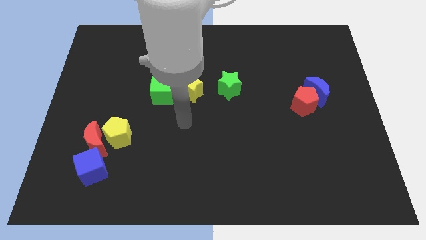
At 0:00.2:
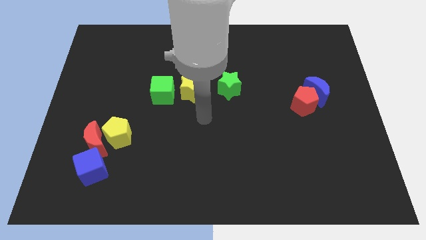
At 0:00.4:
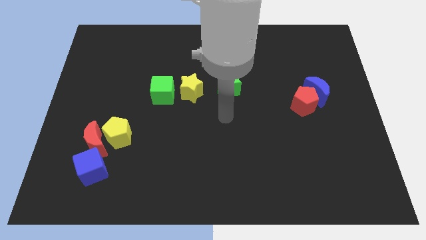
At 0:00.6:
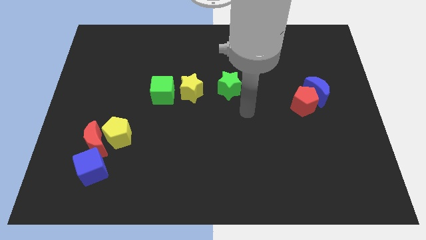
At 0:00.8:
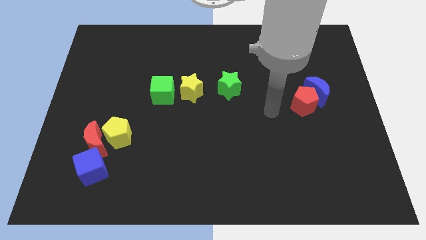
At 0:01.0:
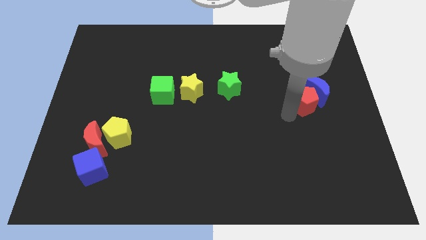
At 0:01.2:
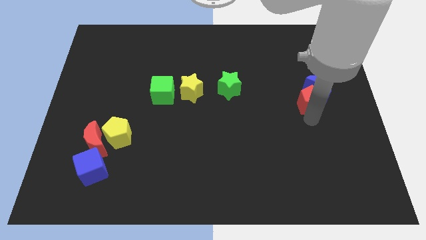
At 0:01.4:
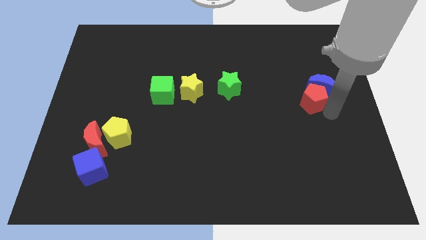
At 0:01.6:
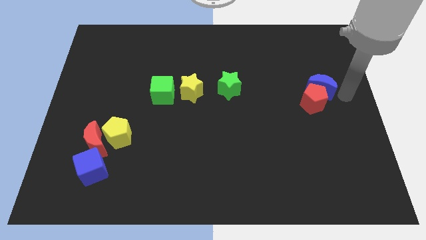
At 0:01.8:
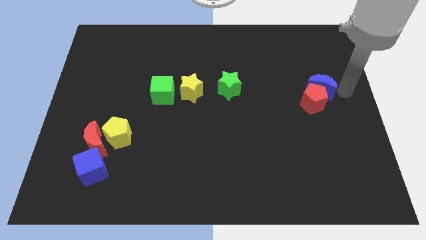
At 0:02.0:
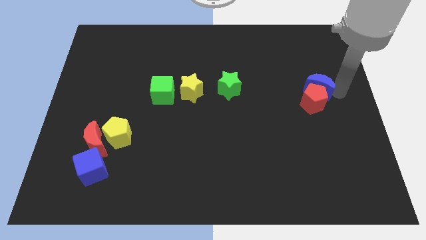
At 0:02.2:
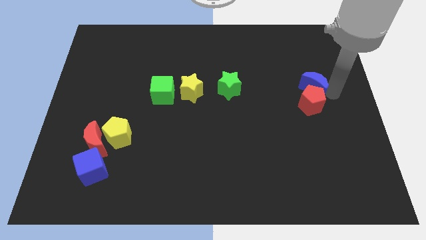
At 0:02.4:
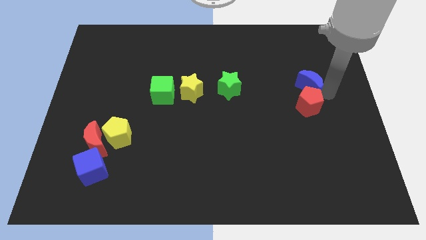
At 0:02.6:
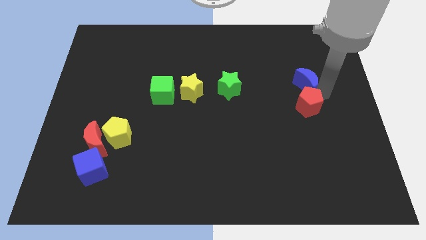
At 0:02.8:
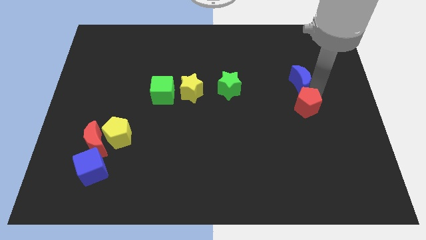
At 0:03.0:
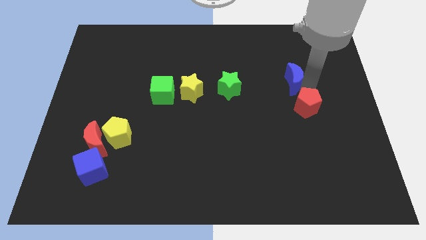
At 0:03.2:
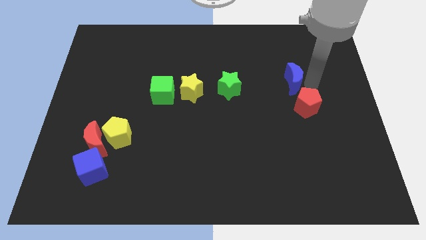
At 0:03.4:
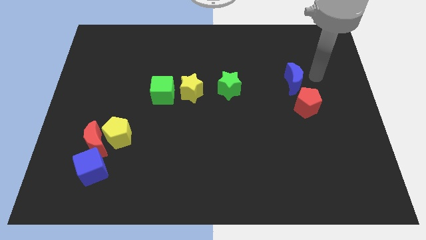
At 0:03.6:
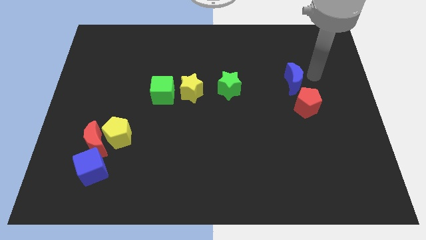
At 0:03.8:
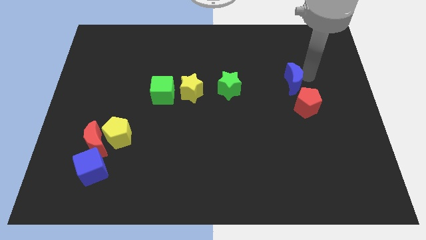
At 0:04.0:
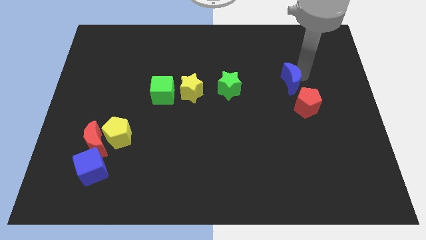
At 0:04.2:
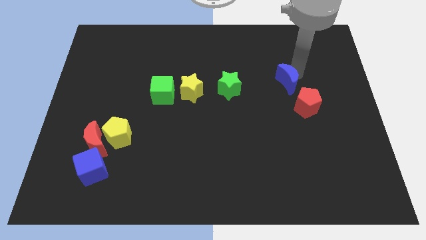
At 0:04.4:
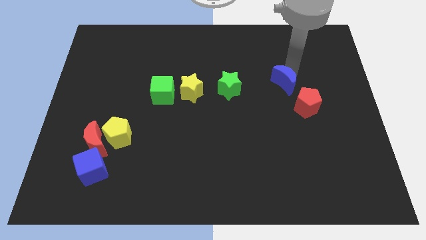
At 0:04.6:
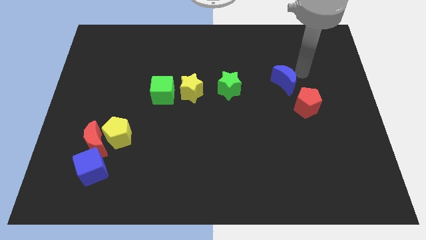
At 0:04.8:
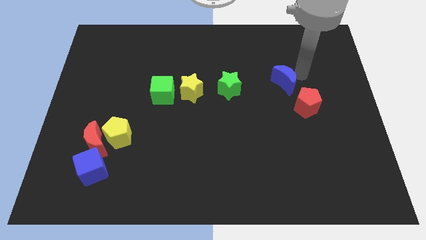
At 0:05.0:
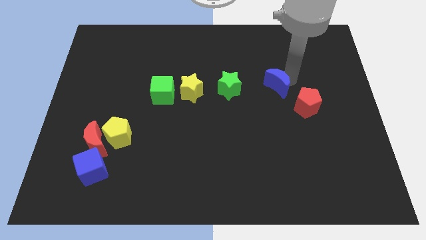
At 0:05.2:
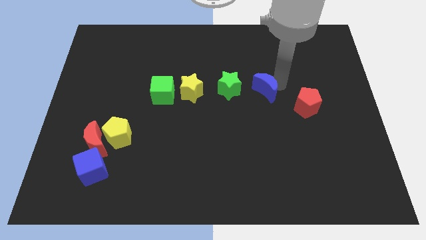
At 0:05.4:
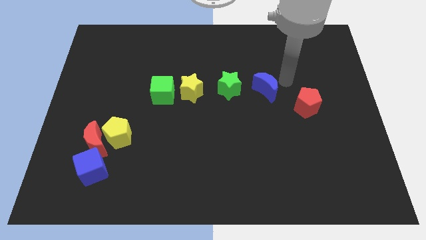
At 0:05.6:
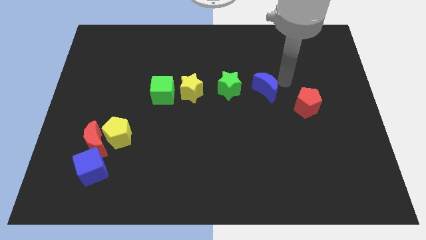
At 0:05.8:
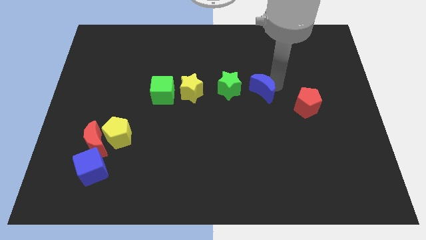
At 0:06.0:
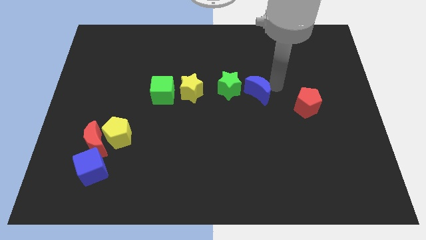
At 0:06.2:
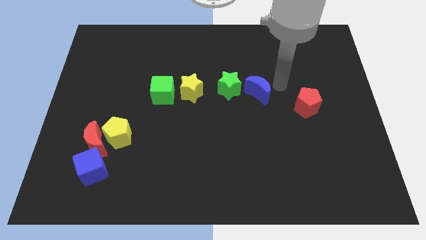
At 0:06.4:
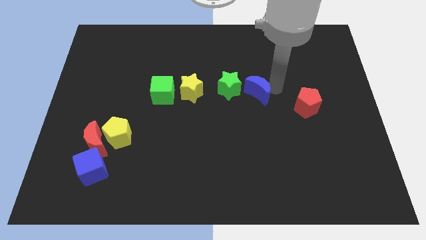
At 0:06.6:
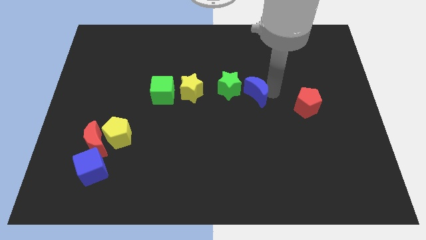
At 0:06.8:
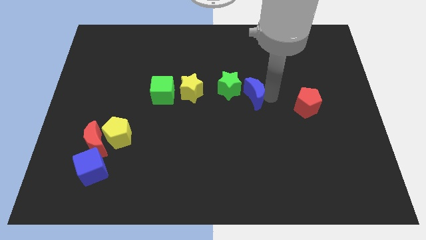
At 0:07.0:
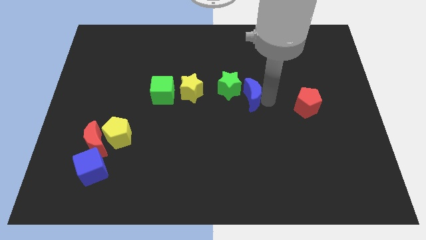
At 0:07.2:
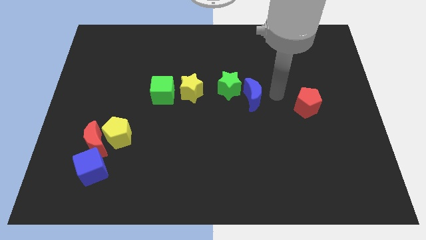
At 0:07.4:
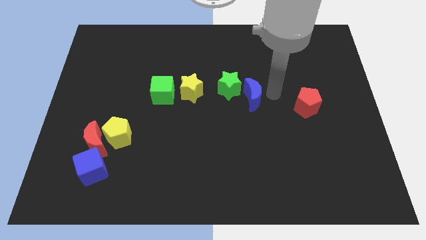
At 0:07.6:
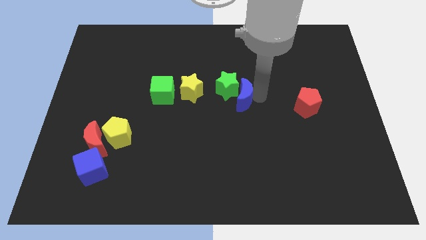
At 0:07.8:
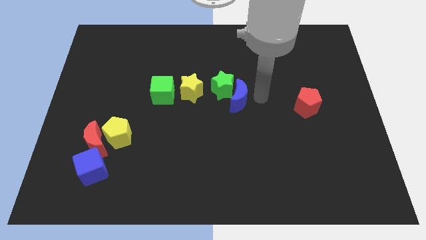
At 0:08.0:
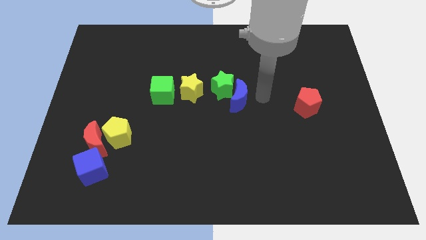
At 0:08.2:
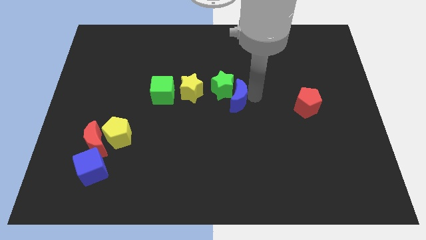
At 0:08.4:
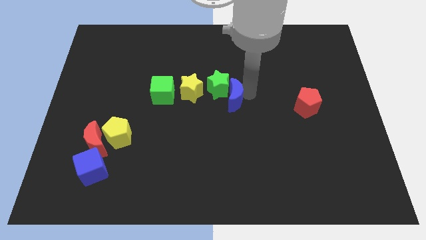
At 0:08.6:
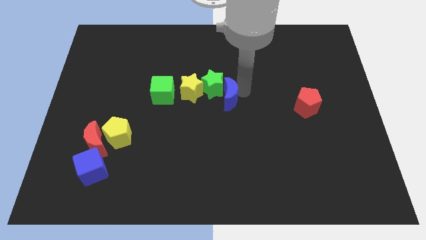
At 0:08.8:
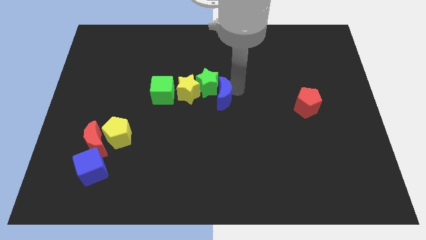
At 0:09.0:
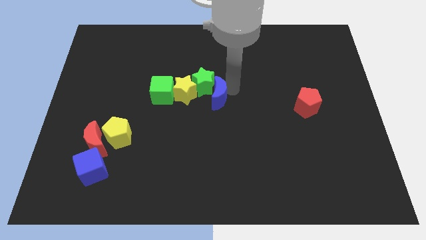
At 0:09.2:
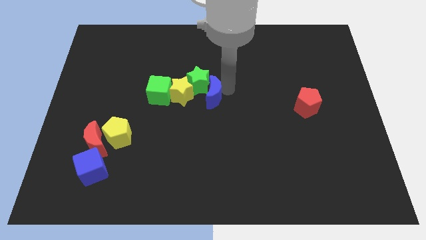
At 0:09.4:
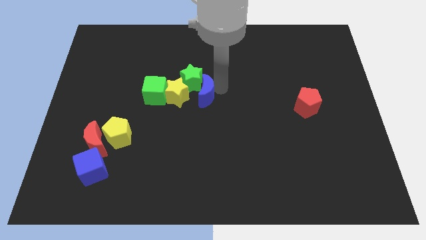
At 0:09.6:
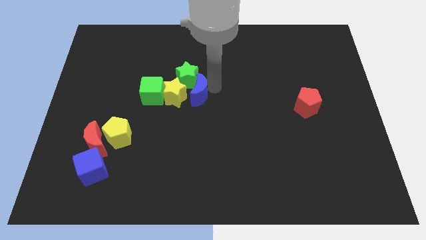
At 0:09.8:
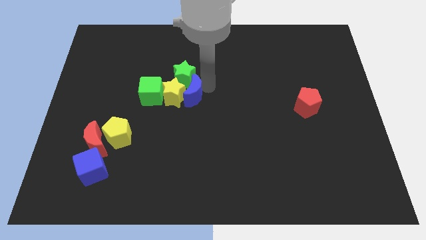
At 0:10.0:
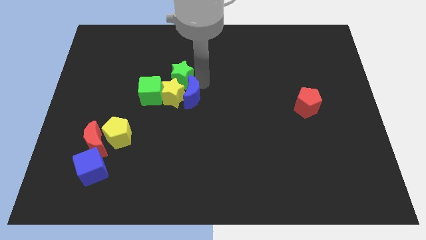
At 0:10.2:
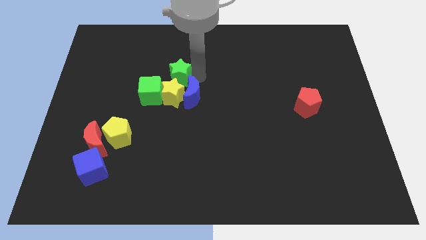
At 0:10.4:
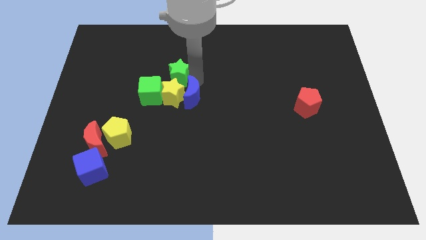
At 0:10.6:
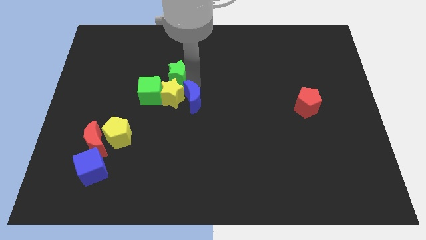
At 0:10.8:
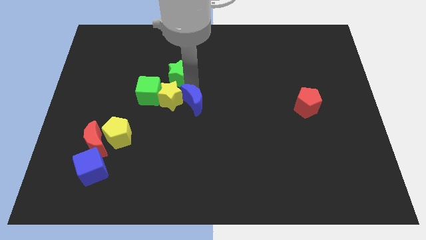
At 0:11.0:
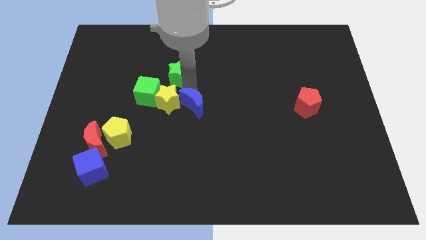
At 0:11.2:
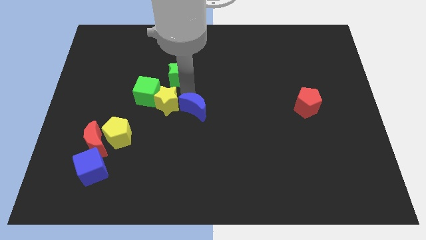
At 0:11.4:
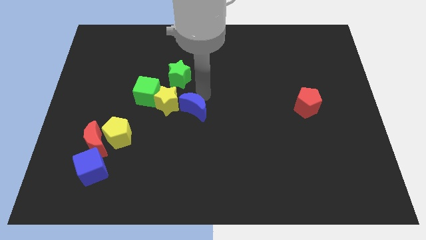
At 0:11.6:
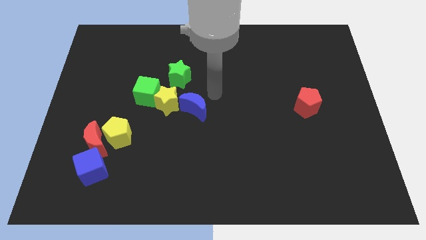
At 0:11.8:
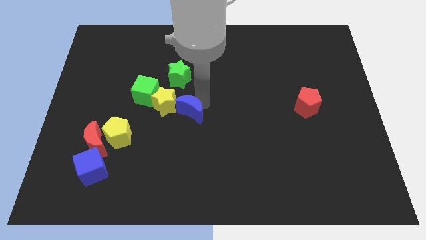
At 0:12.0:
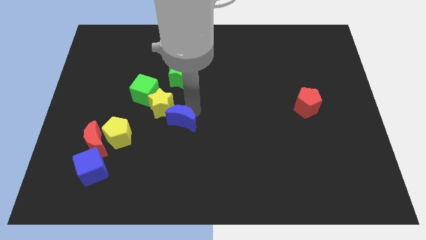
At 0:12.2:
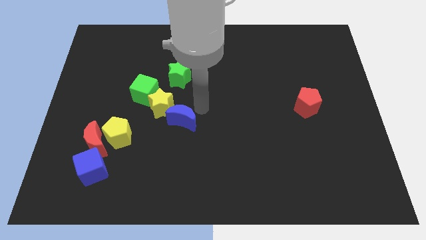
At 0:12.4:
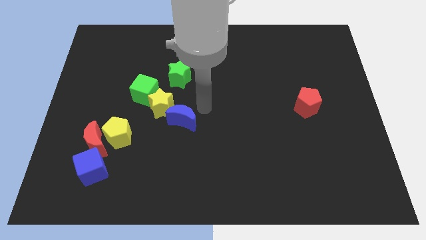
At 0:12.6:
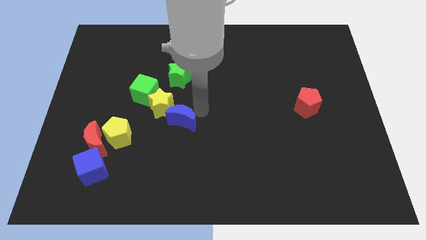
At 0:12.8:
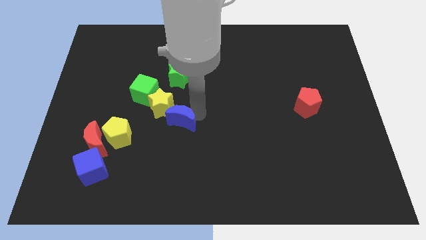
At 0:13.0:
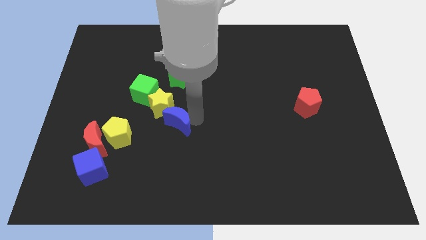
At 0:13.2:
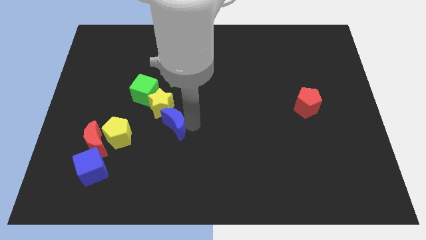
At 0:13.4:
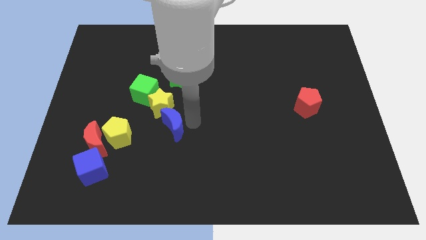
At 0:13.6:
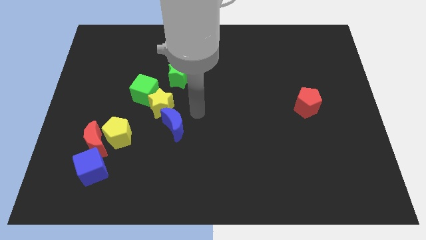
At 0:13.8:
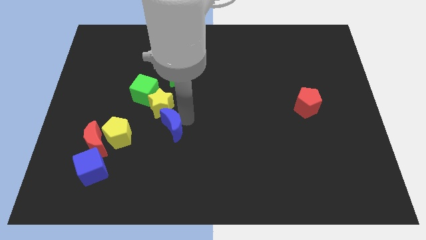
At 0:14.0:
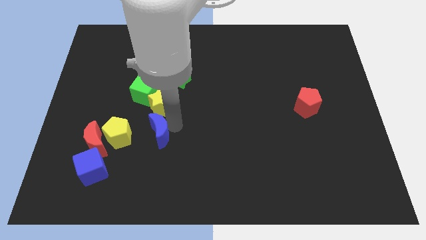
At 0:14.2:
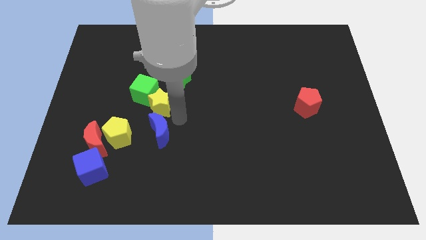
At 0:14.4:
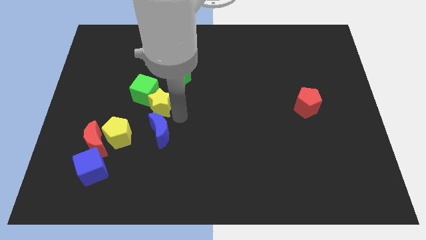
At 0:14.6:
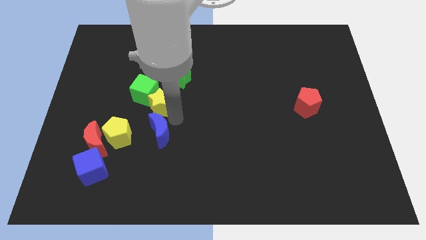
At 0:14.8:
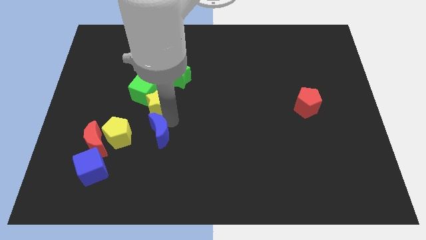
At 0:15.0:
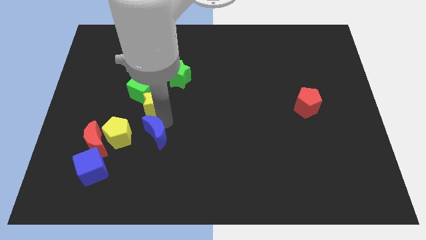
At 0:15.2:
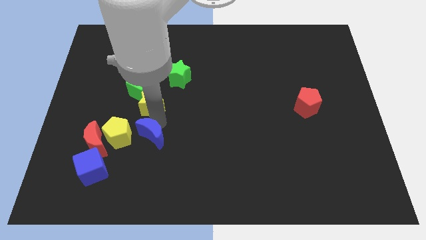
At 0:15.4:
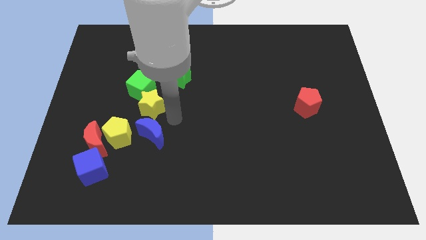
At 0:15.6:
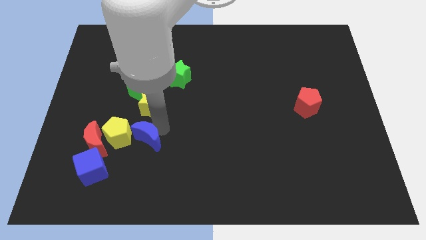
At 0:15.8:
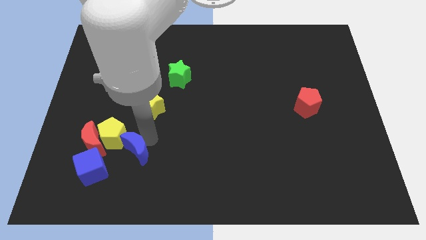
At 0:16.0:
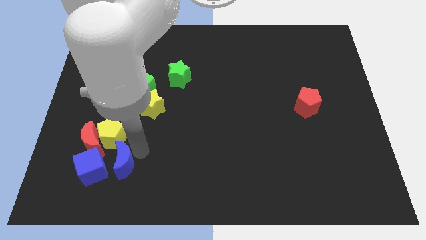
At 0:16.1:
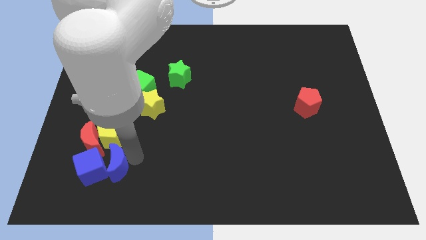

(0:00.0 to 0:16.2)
put the blue moon next to the blue cube
